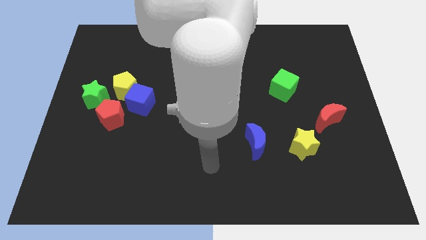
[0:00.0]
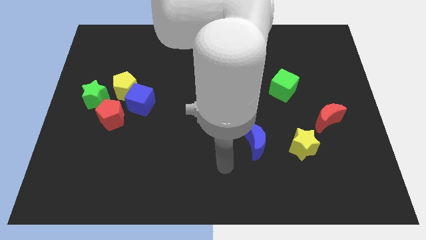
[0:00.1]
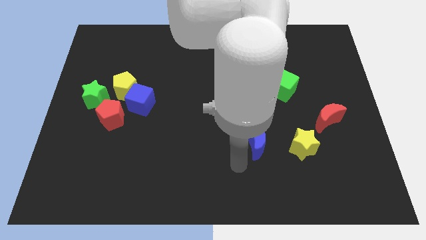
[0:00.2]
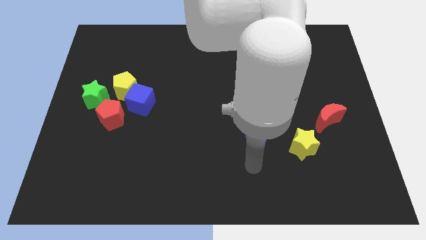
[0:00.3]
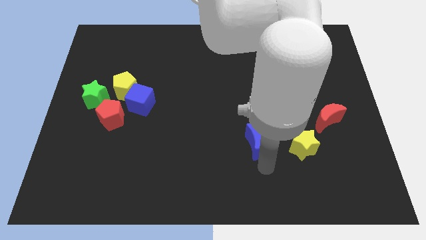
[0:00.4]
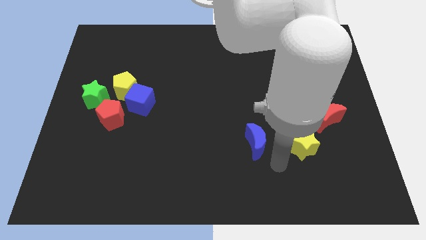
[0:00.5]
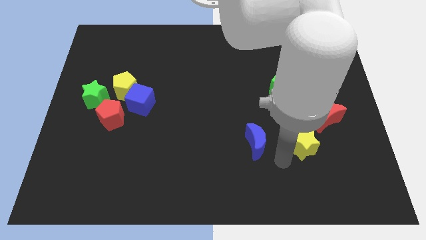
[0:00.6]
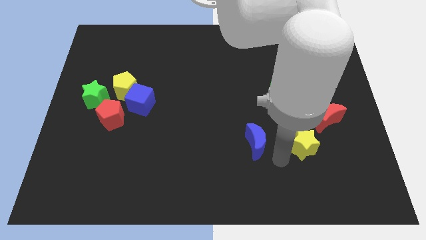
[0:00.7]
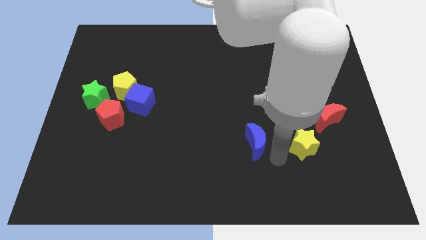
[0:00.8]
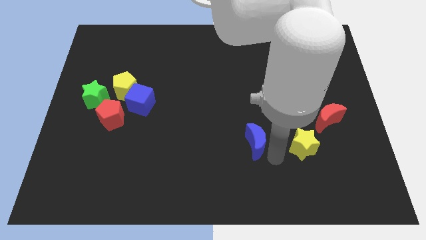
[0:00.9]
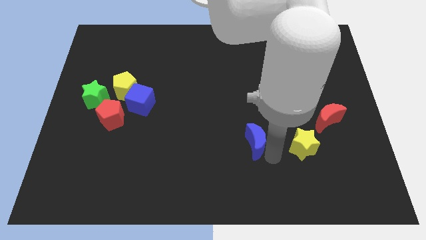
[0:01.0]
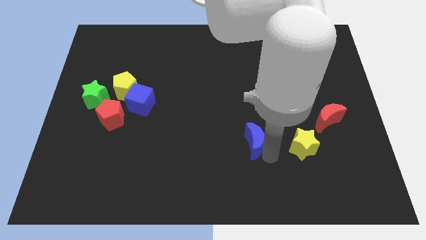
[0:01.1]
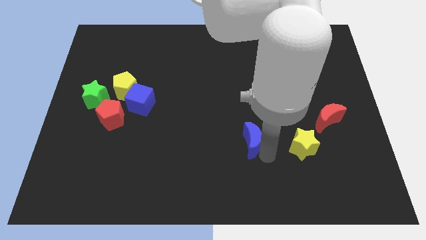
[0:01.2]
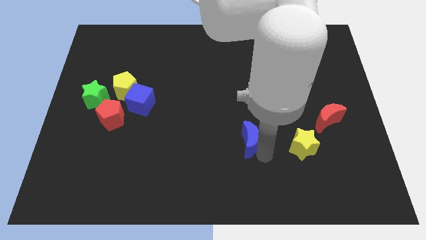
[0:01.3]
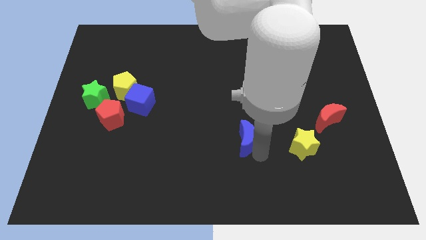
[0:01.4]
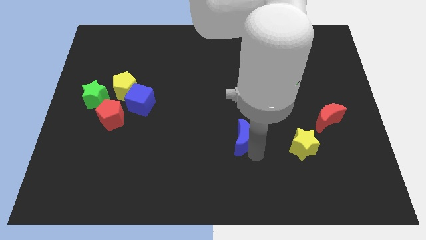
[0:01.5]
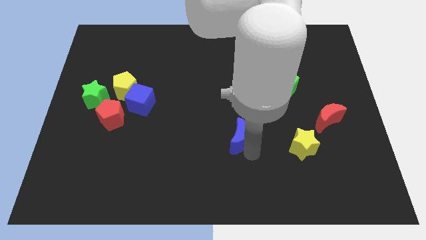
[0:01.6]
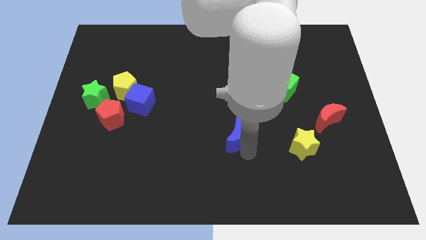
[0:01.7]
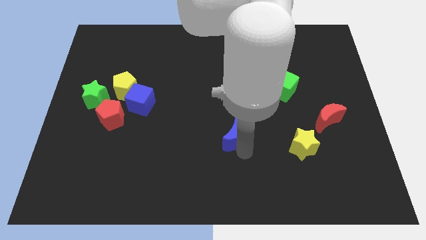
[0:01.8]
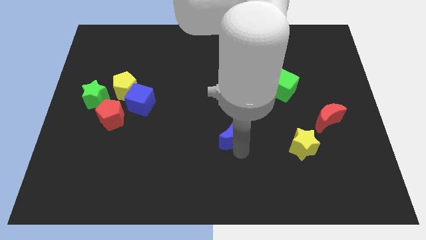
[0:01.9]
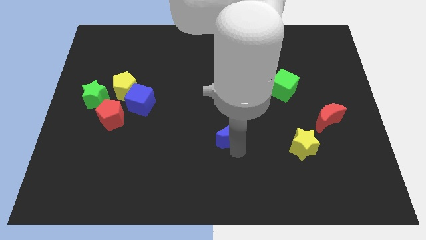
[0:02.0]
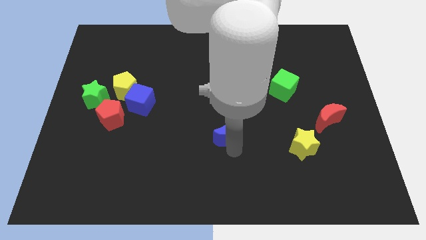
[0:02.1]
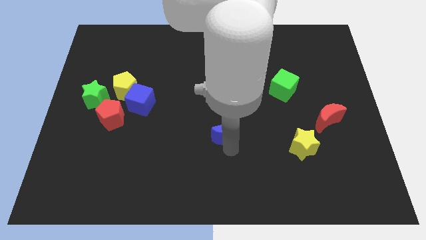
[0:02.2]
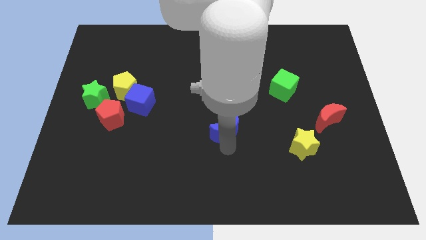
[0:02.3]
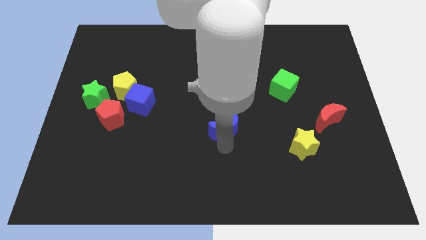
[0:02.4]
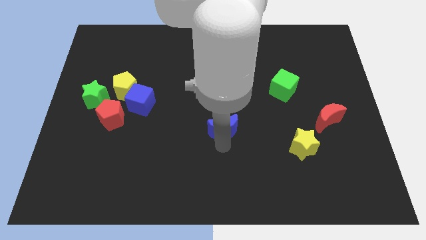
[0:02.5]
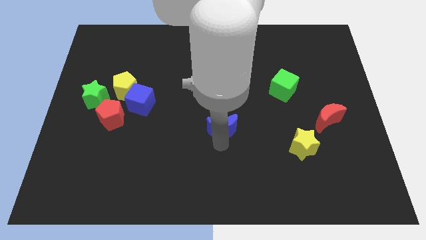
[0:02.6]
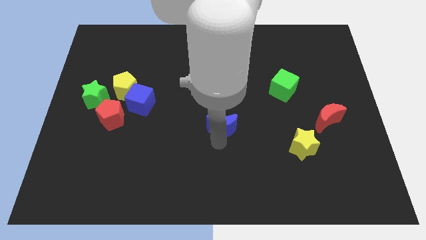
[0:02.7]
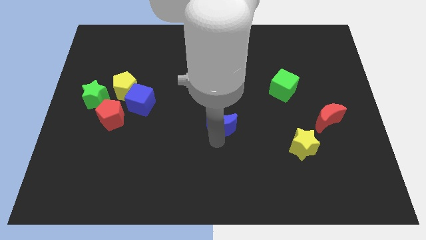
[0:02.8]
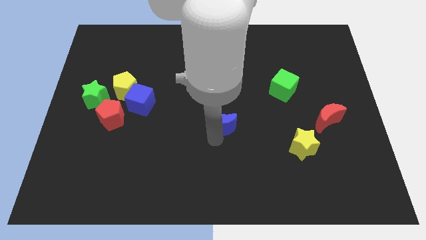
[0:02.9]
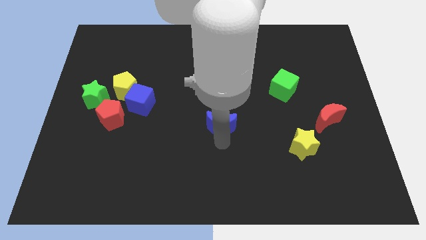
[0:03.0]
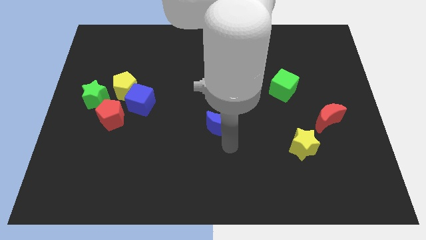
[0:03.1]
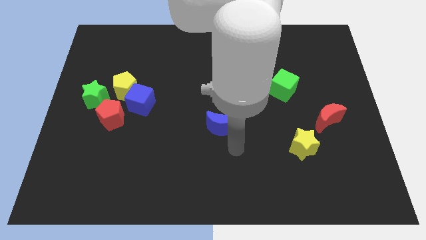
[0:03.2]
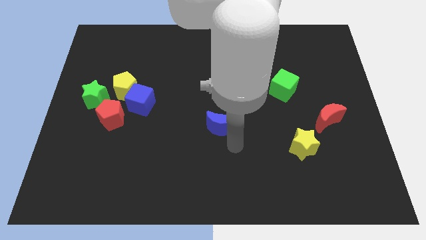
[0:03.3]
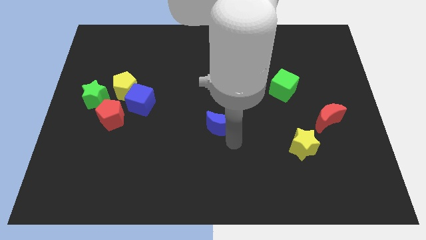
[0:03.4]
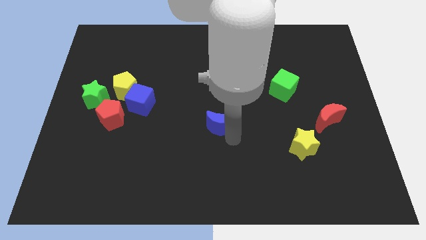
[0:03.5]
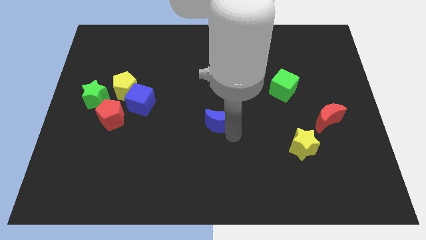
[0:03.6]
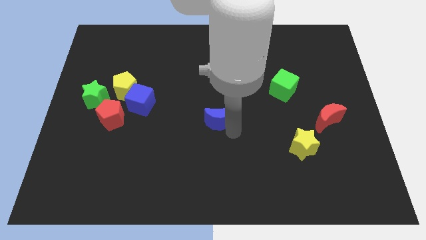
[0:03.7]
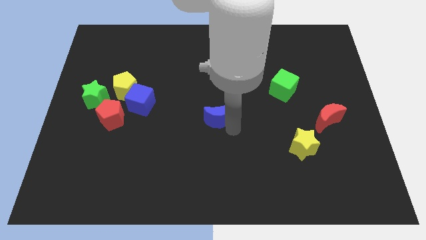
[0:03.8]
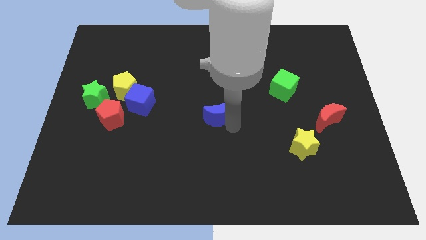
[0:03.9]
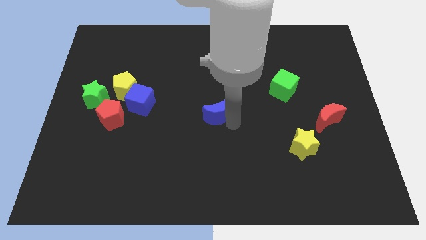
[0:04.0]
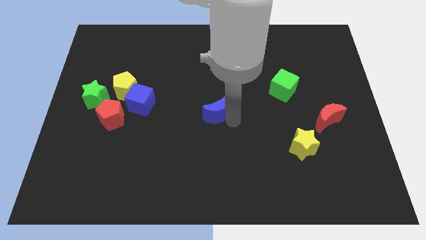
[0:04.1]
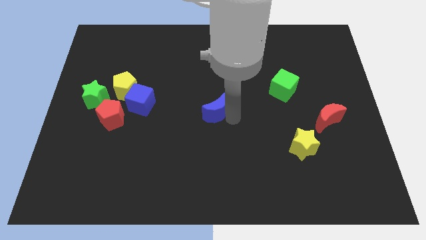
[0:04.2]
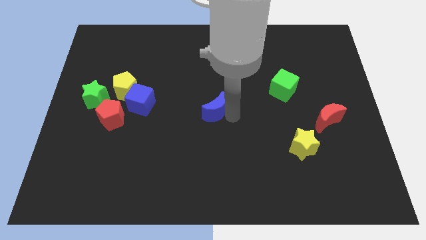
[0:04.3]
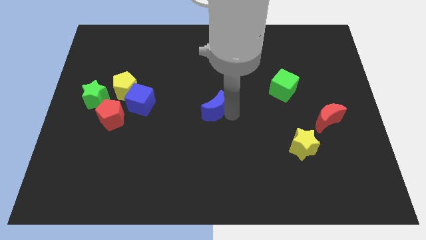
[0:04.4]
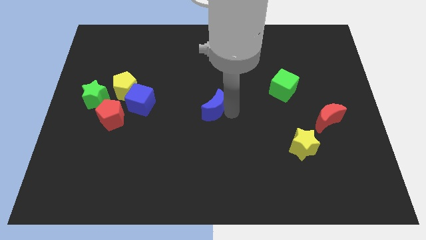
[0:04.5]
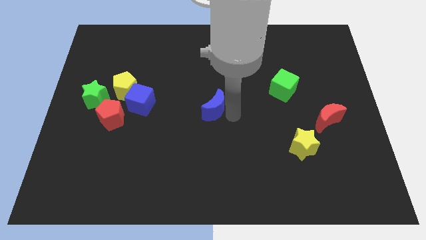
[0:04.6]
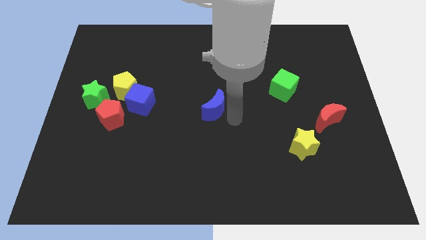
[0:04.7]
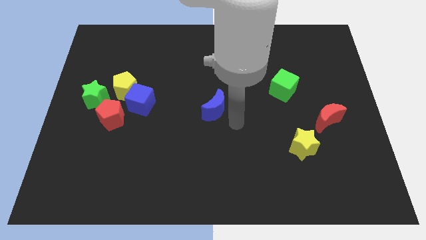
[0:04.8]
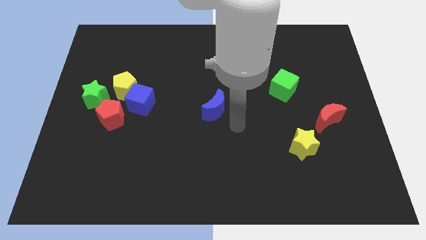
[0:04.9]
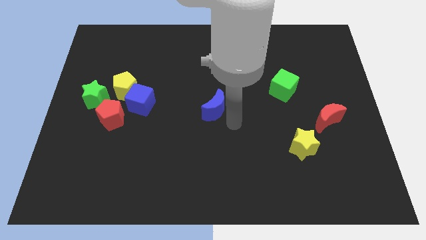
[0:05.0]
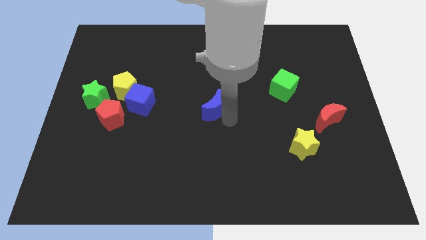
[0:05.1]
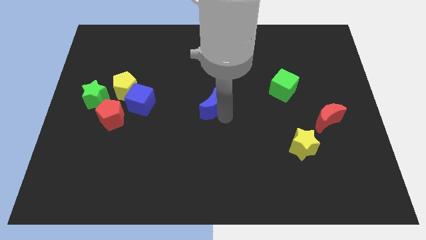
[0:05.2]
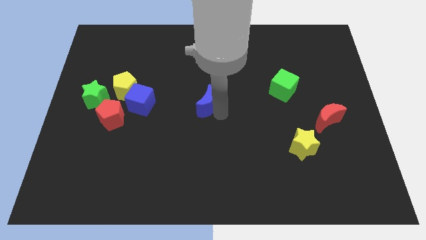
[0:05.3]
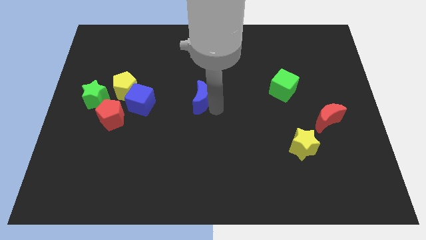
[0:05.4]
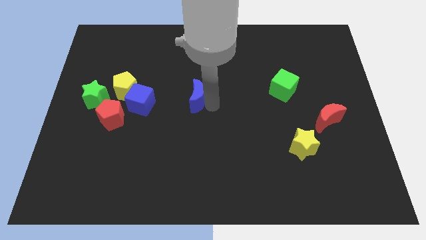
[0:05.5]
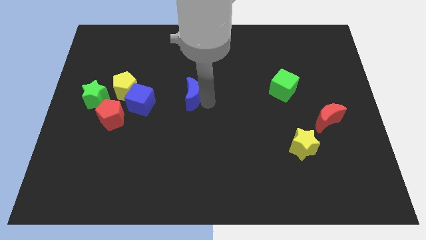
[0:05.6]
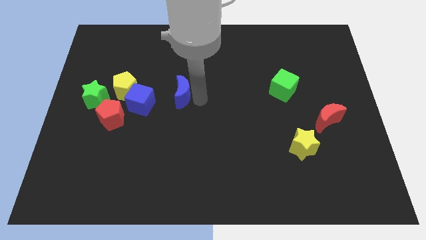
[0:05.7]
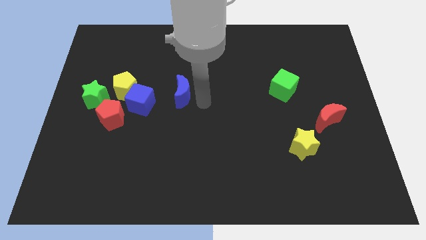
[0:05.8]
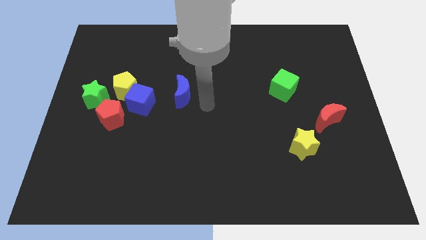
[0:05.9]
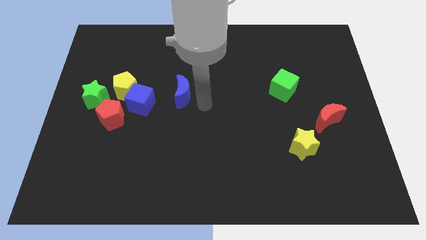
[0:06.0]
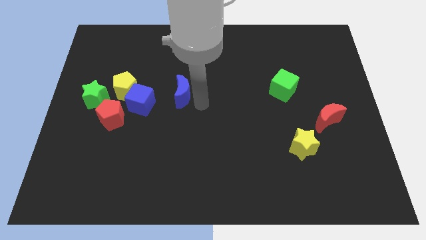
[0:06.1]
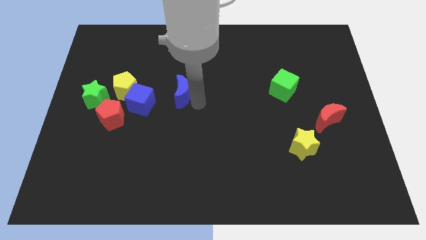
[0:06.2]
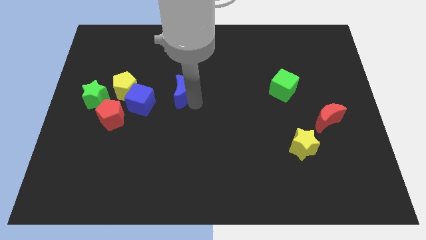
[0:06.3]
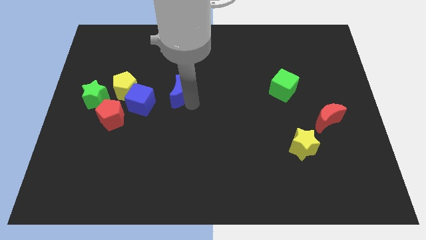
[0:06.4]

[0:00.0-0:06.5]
push the blue moon diagonally up and to the right of the blue cube
